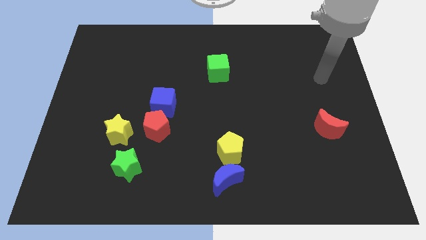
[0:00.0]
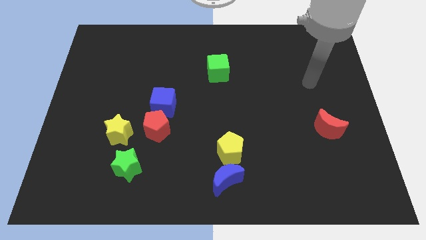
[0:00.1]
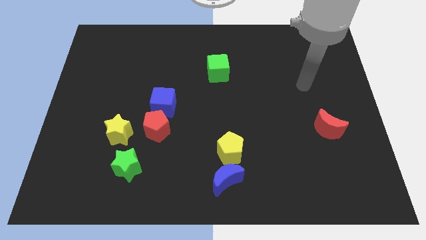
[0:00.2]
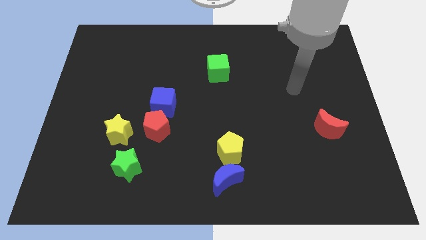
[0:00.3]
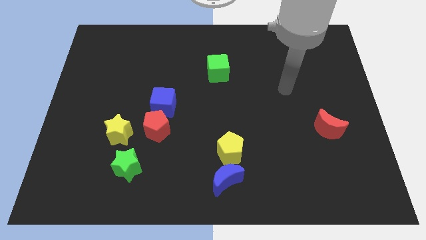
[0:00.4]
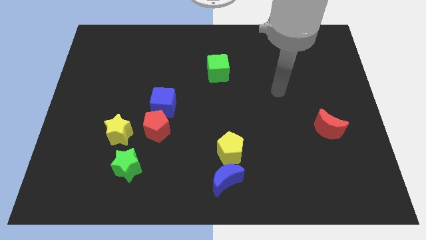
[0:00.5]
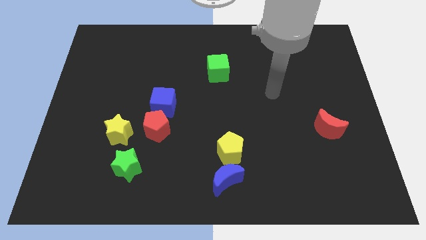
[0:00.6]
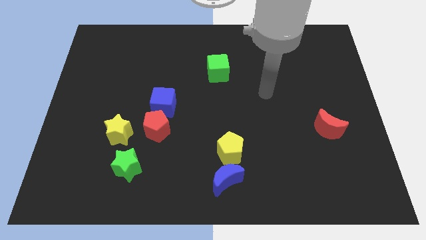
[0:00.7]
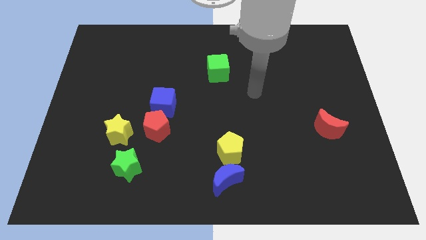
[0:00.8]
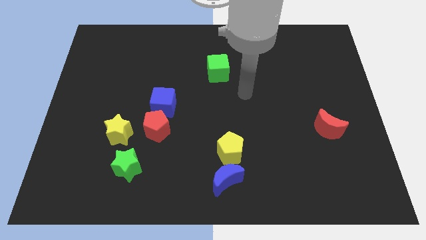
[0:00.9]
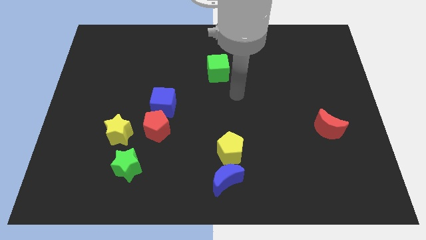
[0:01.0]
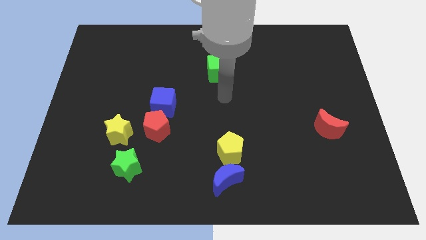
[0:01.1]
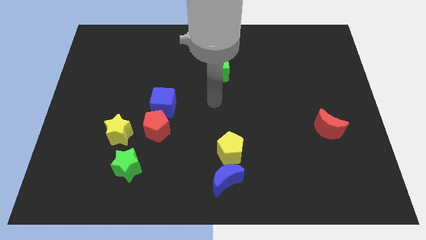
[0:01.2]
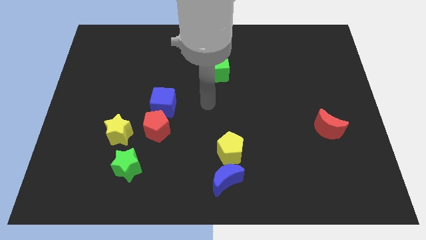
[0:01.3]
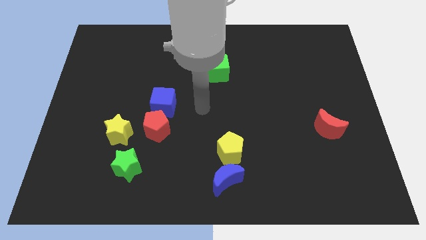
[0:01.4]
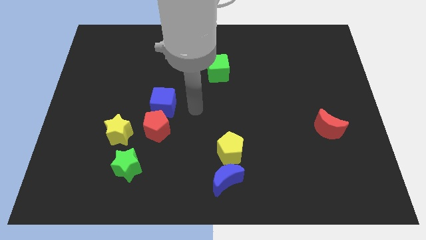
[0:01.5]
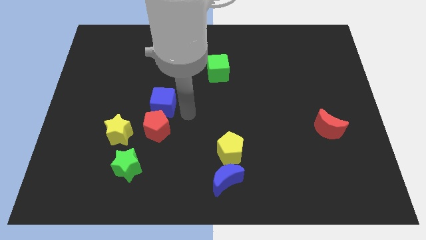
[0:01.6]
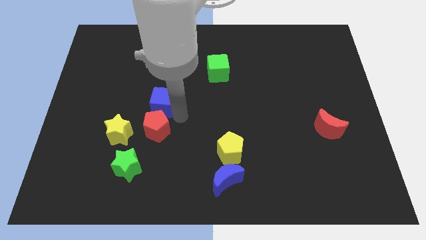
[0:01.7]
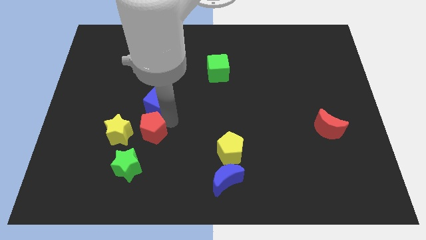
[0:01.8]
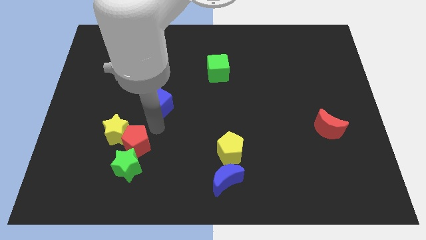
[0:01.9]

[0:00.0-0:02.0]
move the blue cube away from the red pentagon

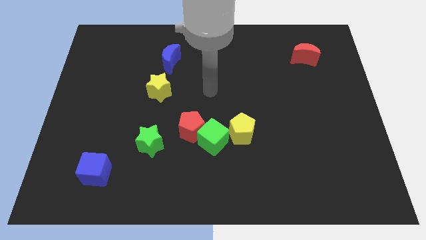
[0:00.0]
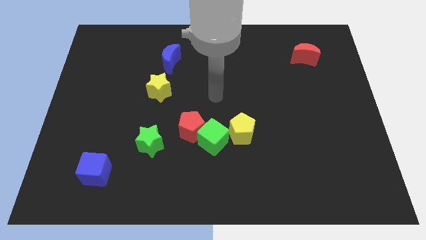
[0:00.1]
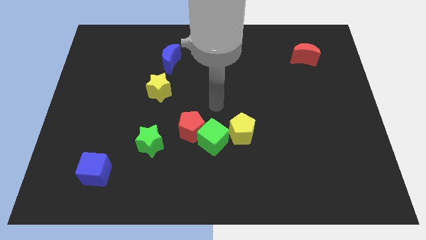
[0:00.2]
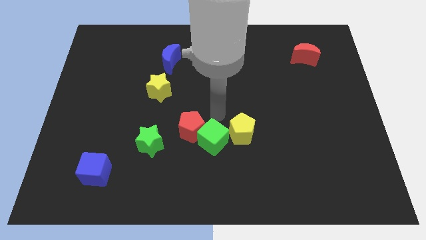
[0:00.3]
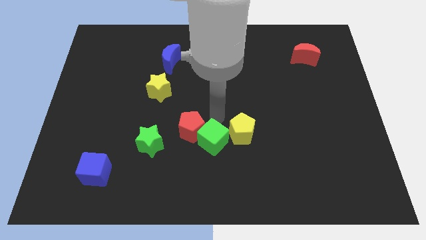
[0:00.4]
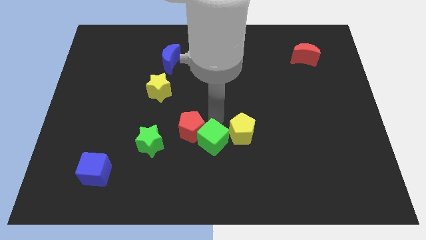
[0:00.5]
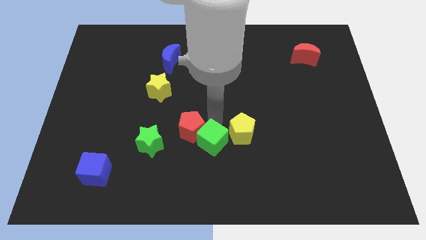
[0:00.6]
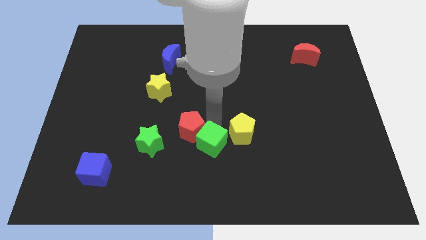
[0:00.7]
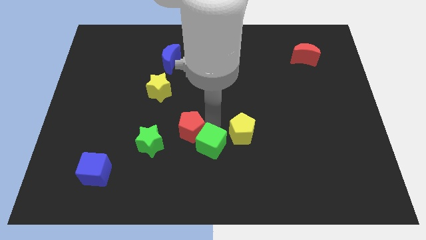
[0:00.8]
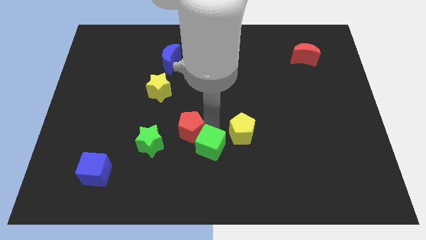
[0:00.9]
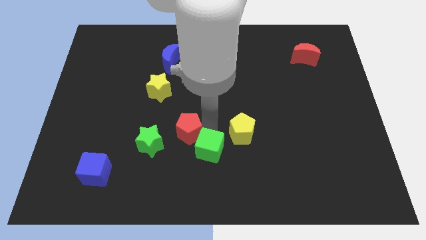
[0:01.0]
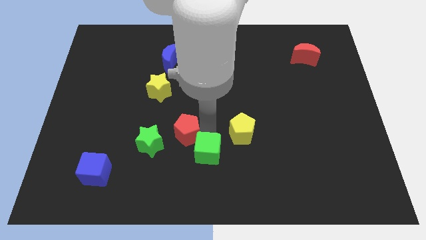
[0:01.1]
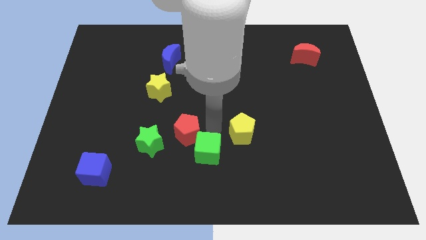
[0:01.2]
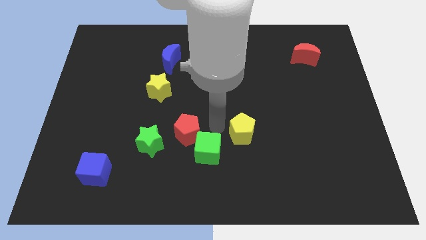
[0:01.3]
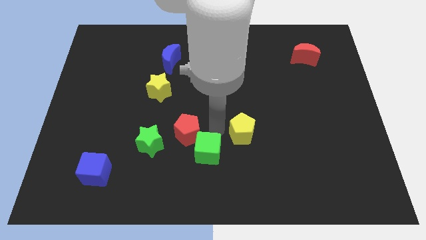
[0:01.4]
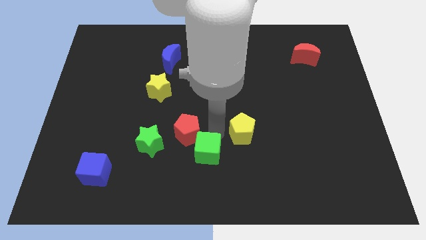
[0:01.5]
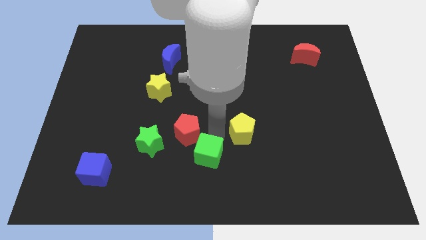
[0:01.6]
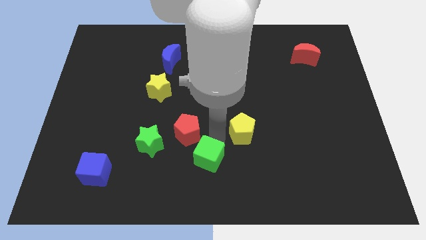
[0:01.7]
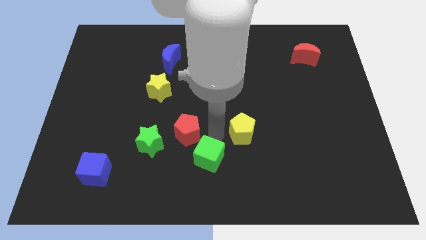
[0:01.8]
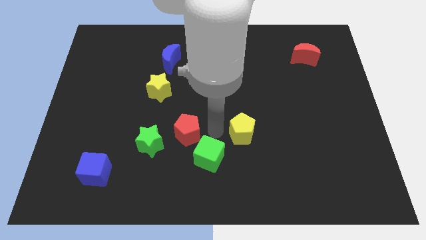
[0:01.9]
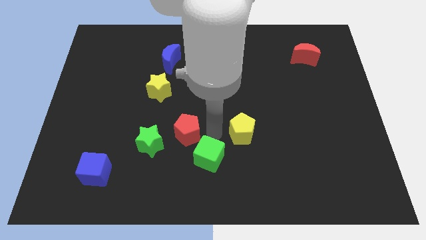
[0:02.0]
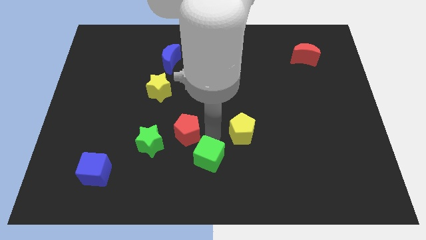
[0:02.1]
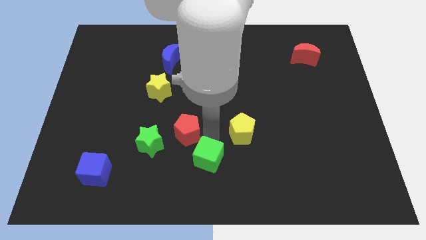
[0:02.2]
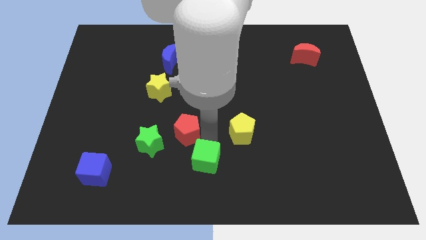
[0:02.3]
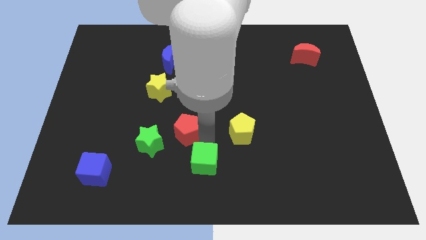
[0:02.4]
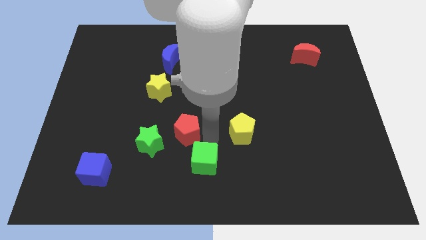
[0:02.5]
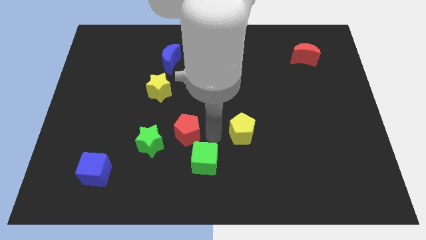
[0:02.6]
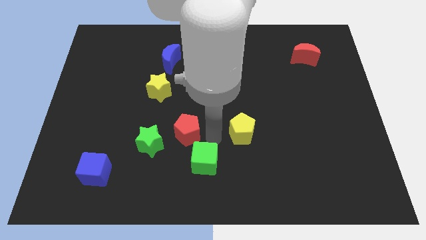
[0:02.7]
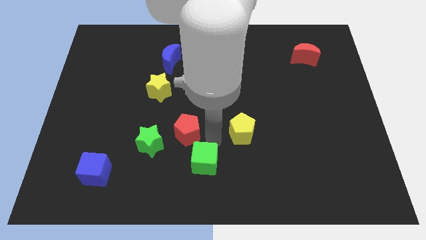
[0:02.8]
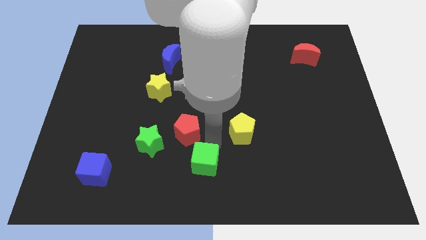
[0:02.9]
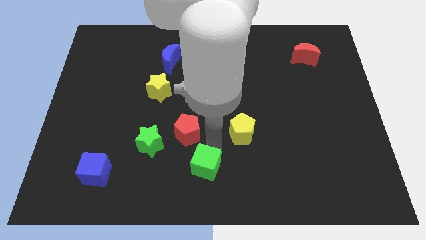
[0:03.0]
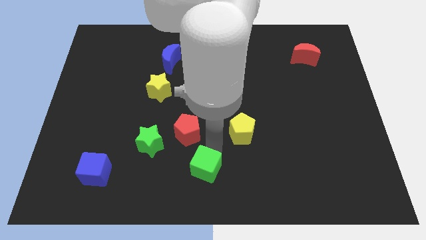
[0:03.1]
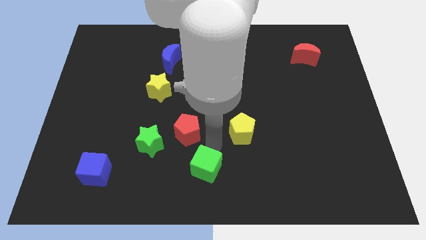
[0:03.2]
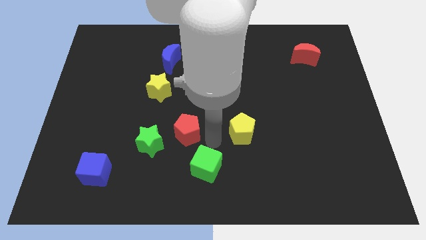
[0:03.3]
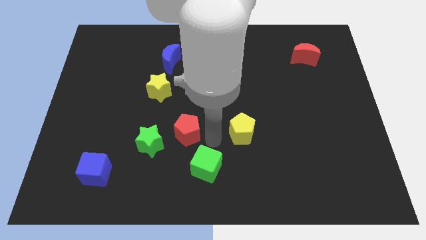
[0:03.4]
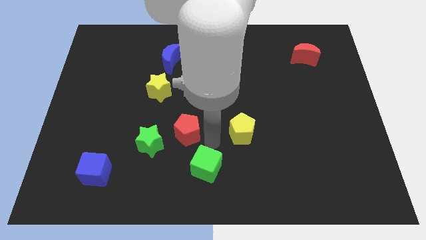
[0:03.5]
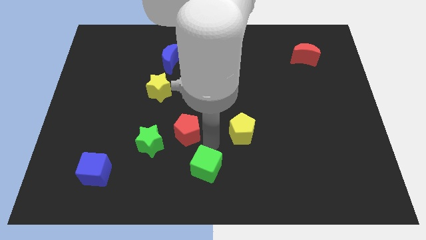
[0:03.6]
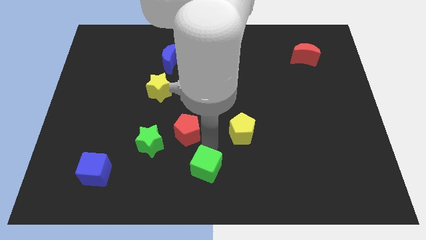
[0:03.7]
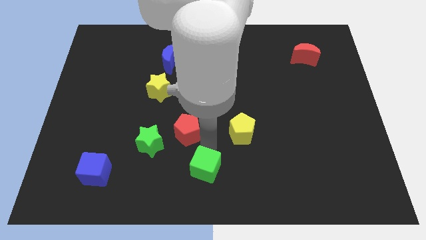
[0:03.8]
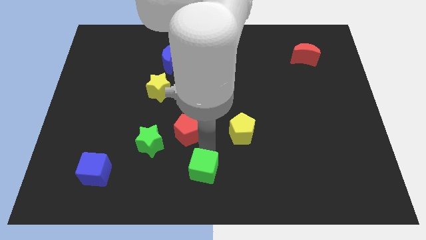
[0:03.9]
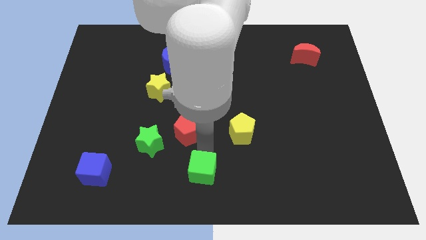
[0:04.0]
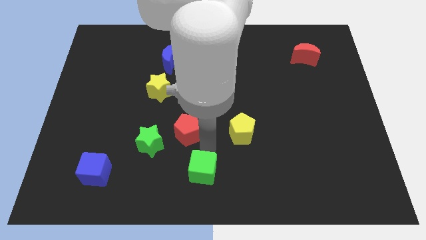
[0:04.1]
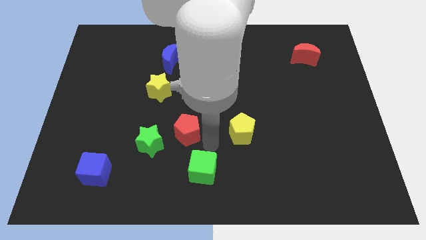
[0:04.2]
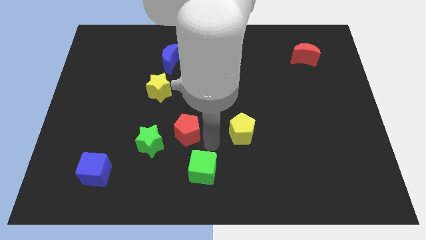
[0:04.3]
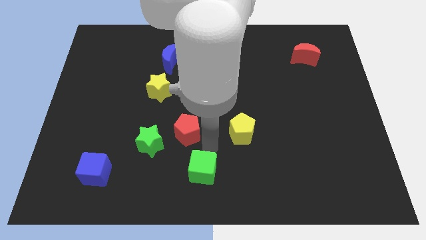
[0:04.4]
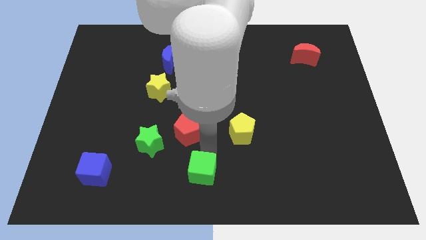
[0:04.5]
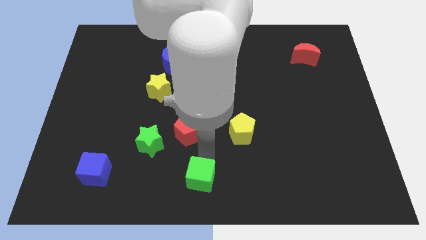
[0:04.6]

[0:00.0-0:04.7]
move the green cube away from the red pentagon and yellow pentagon

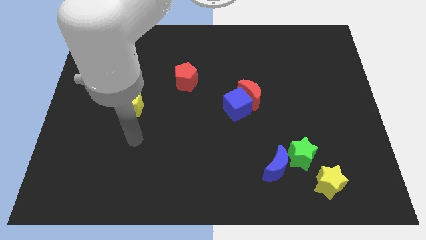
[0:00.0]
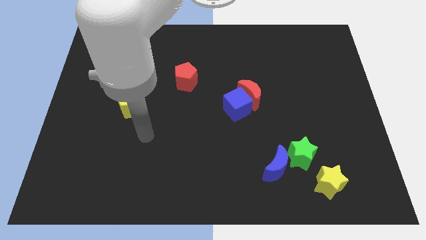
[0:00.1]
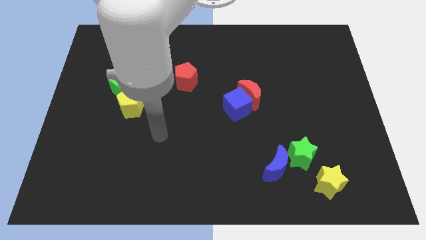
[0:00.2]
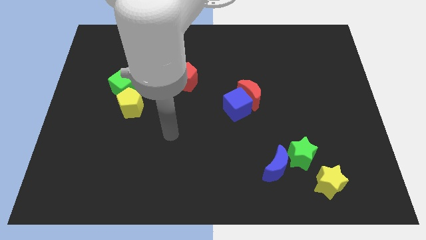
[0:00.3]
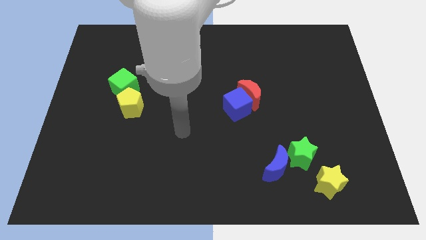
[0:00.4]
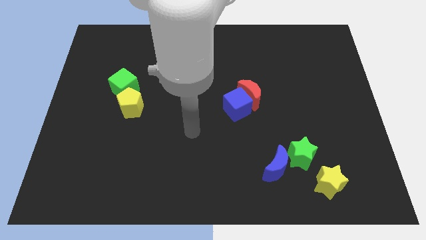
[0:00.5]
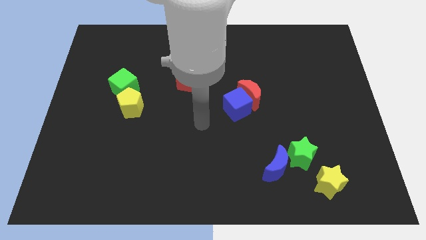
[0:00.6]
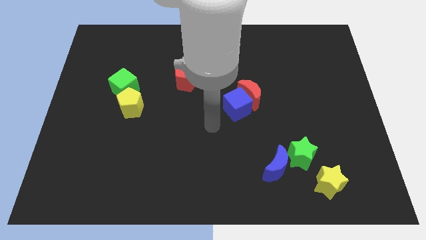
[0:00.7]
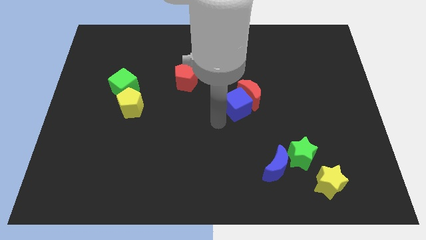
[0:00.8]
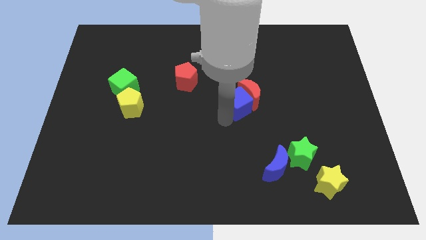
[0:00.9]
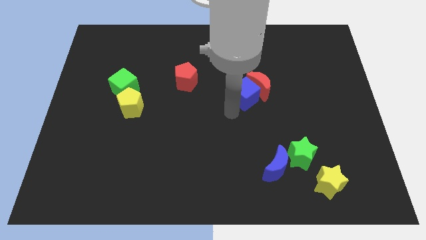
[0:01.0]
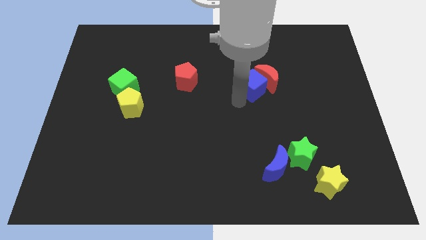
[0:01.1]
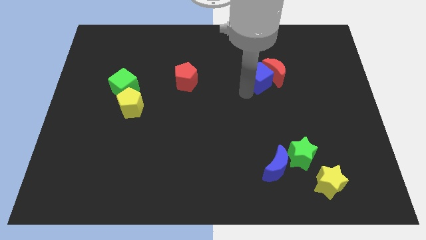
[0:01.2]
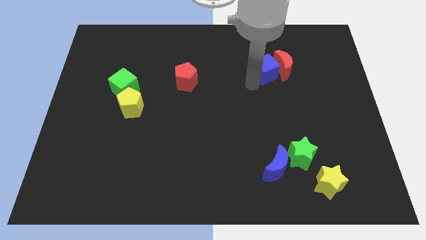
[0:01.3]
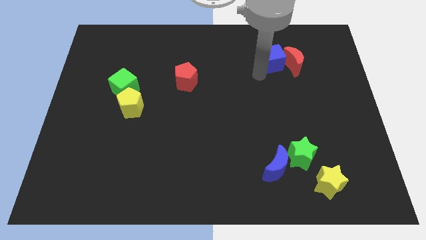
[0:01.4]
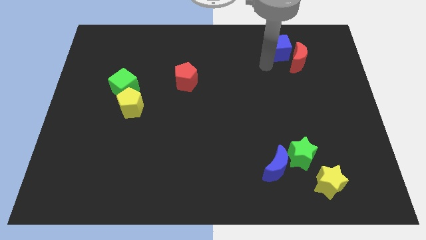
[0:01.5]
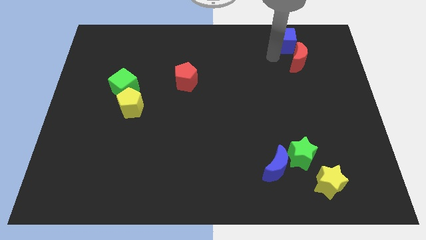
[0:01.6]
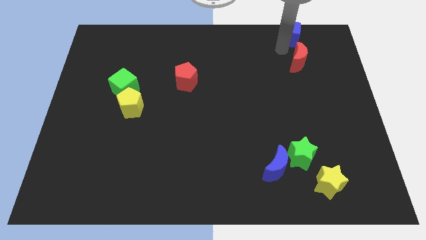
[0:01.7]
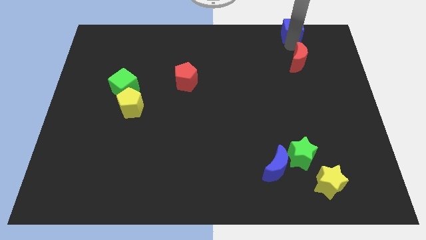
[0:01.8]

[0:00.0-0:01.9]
separate the red moon from the blue cube

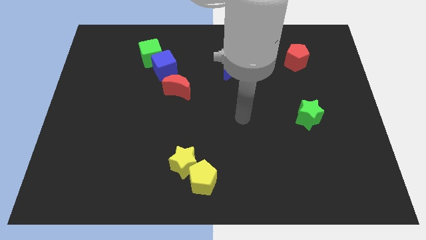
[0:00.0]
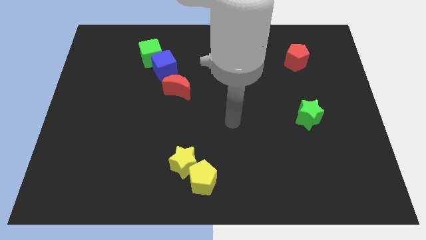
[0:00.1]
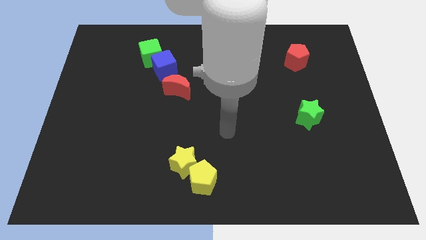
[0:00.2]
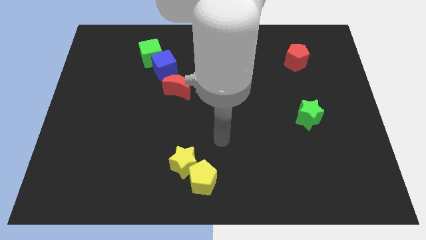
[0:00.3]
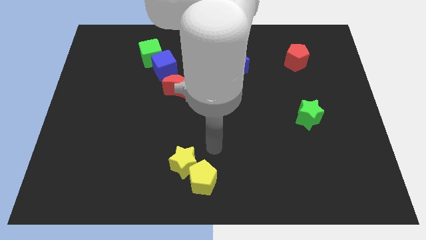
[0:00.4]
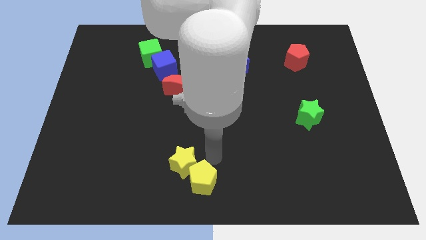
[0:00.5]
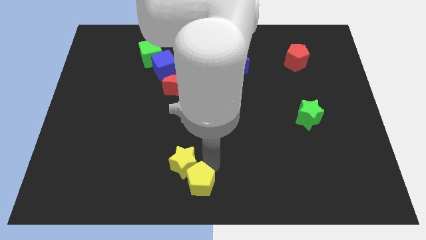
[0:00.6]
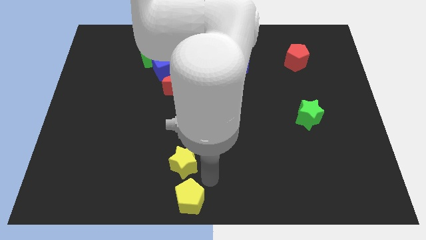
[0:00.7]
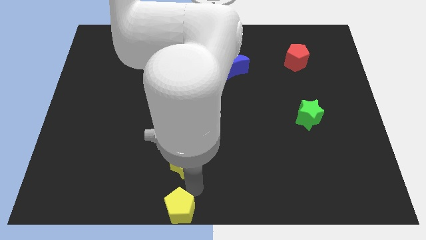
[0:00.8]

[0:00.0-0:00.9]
pull the yellow star apart from the yellow pentagon
